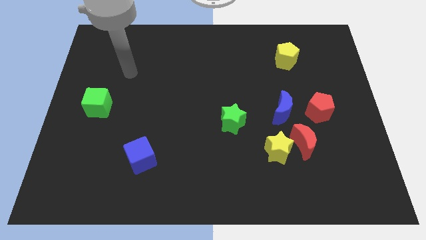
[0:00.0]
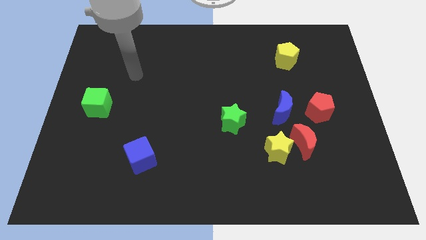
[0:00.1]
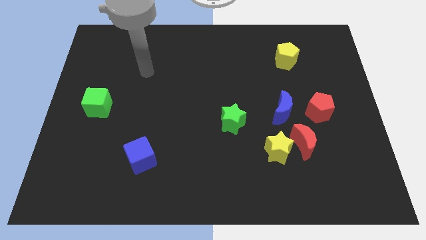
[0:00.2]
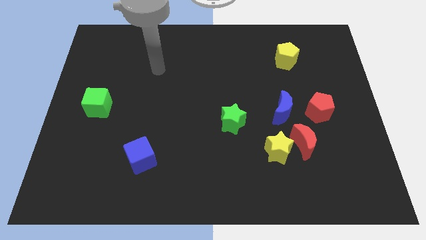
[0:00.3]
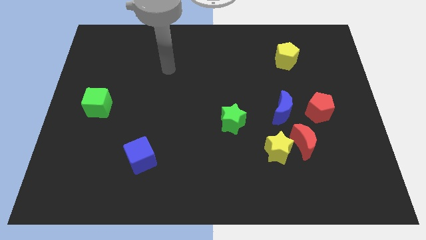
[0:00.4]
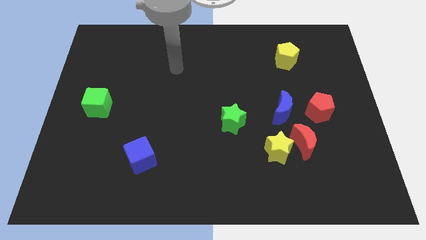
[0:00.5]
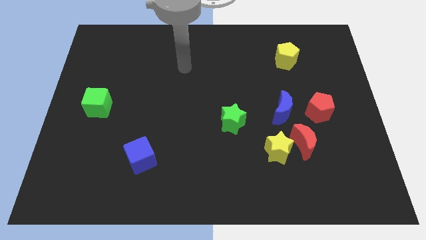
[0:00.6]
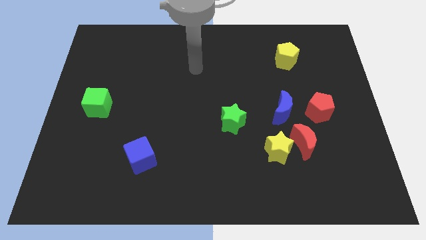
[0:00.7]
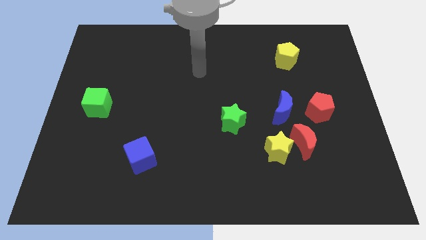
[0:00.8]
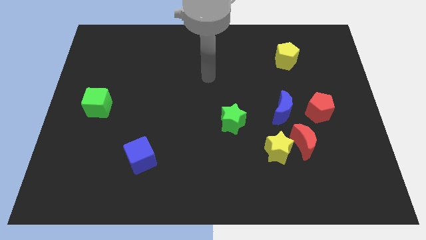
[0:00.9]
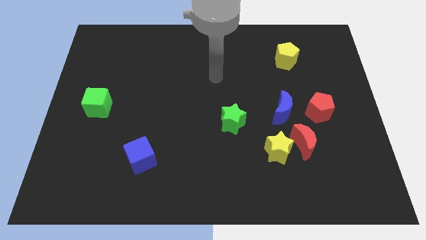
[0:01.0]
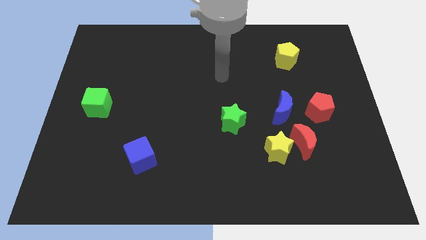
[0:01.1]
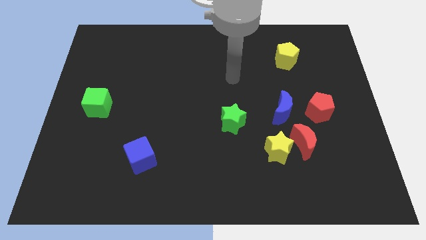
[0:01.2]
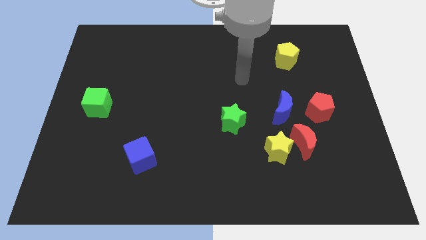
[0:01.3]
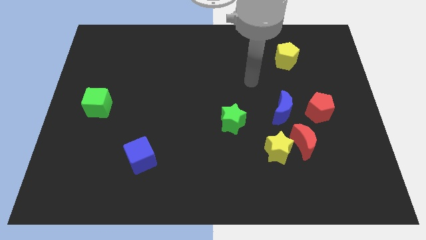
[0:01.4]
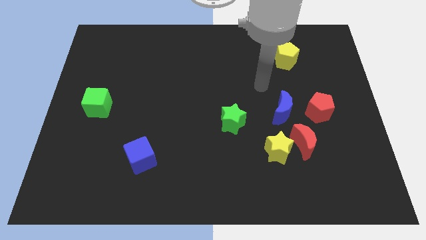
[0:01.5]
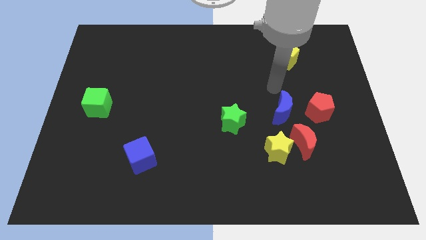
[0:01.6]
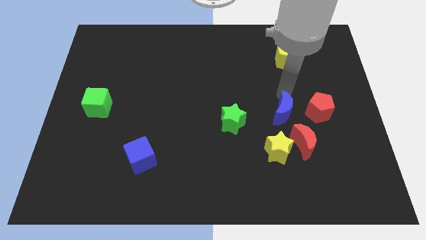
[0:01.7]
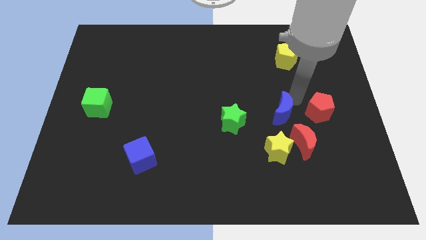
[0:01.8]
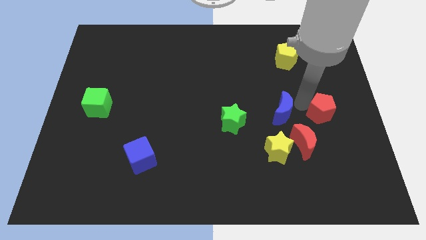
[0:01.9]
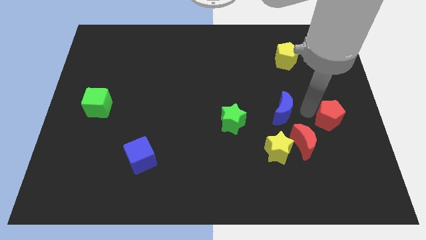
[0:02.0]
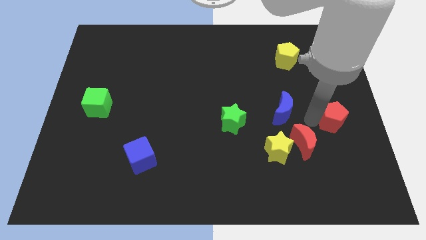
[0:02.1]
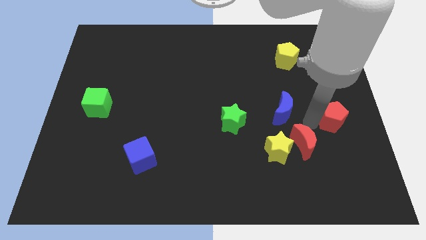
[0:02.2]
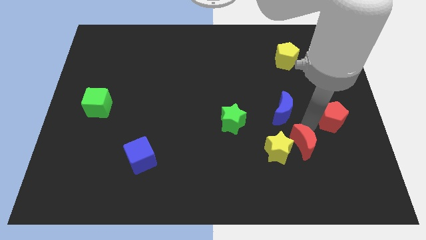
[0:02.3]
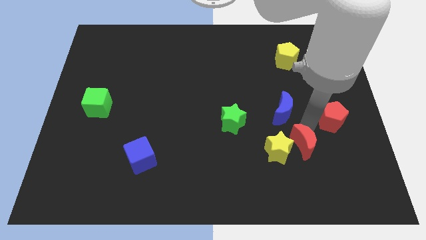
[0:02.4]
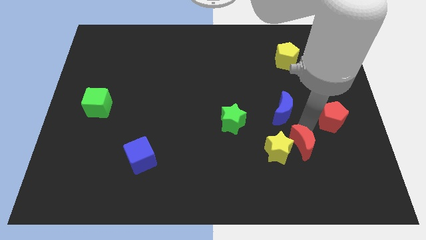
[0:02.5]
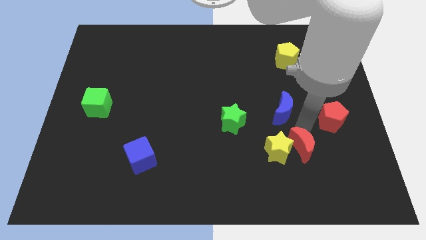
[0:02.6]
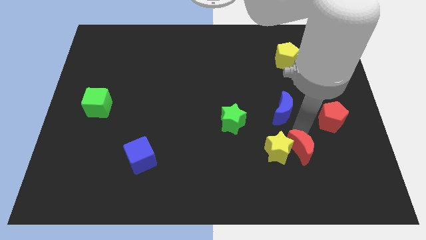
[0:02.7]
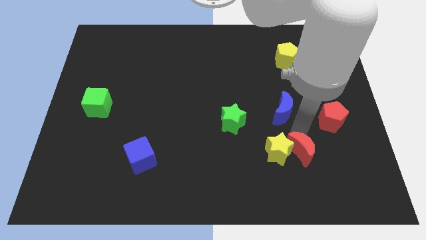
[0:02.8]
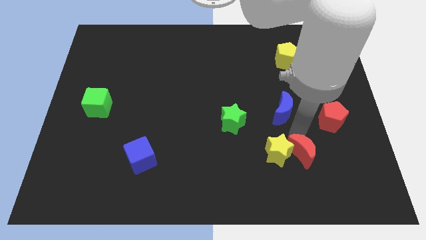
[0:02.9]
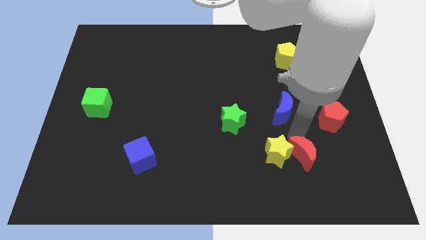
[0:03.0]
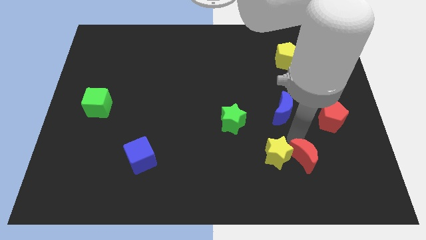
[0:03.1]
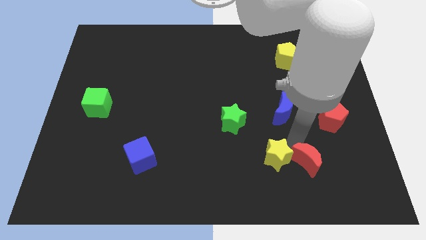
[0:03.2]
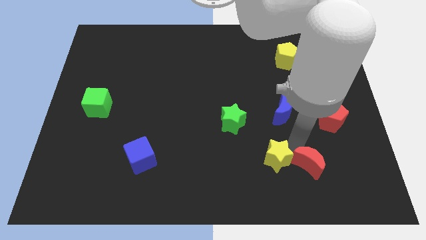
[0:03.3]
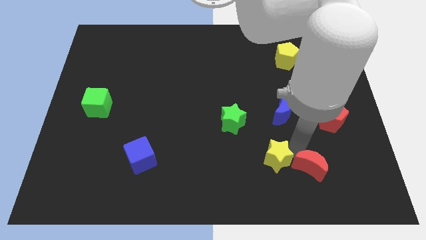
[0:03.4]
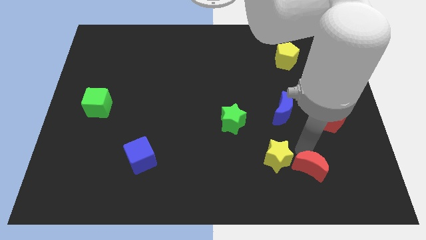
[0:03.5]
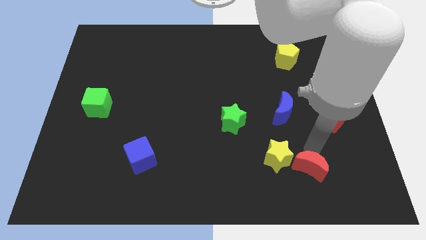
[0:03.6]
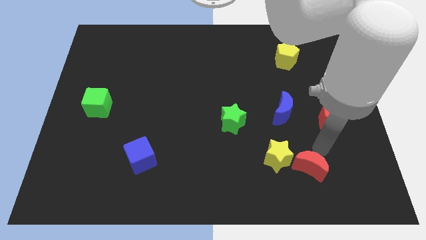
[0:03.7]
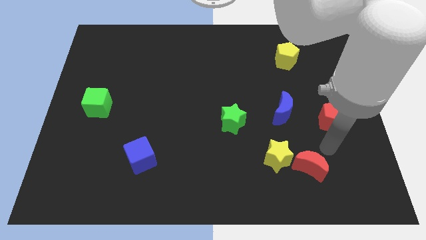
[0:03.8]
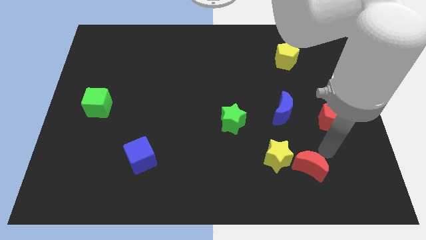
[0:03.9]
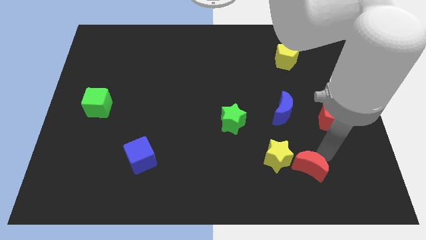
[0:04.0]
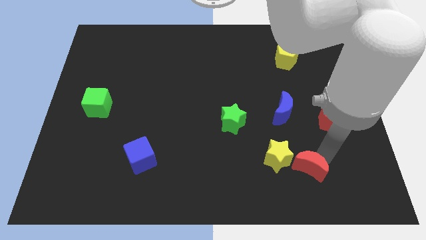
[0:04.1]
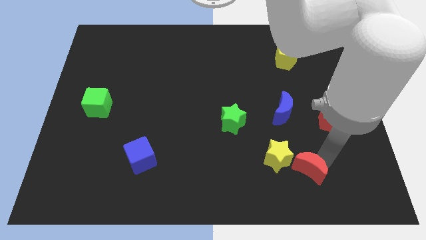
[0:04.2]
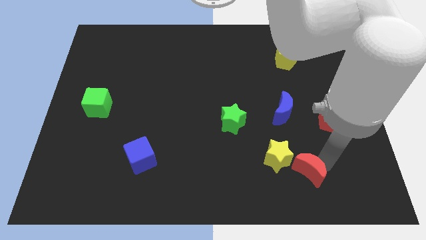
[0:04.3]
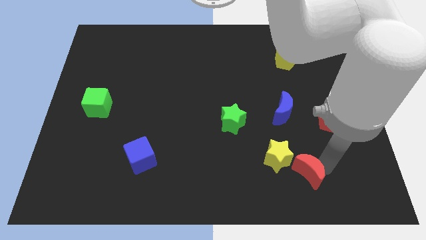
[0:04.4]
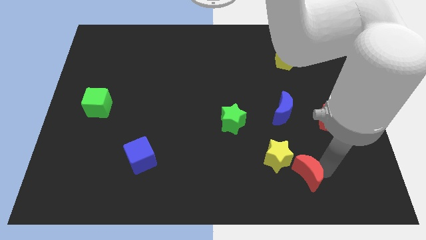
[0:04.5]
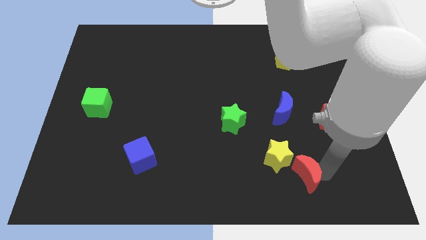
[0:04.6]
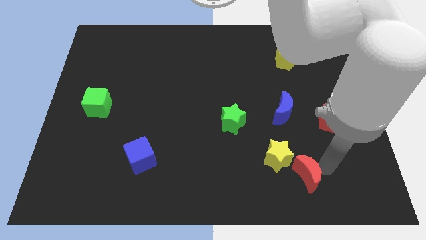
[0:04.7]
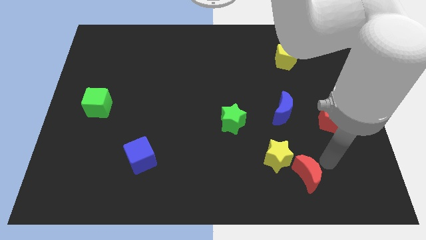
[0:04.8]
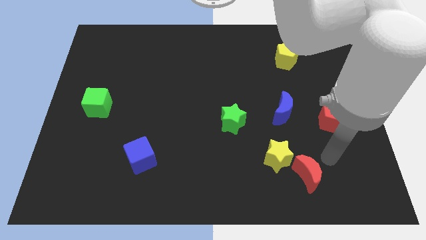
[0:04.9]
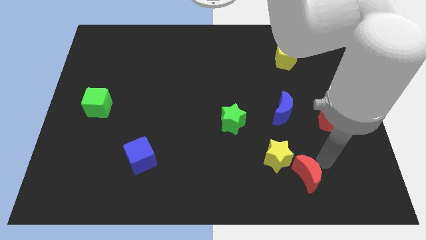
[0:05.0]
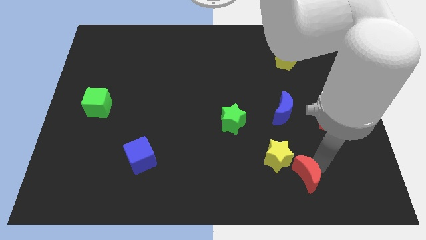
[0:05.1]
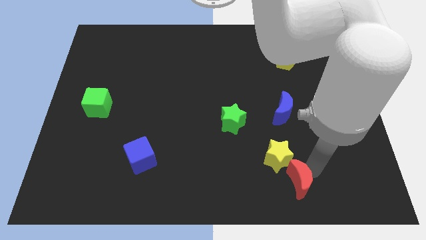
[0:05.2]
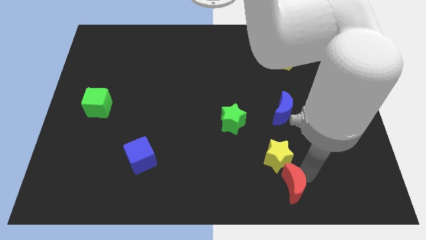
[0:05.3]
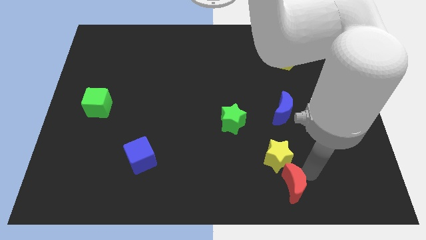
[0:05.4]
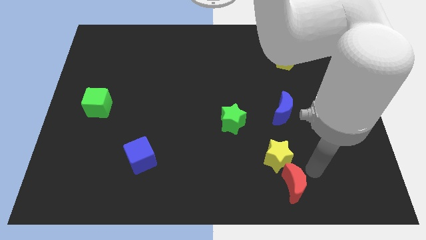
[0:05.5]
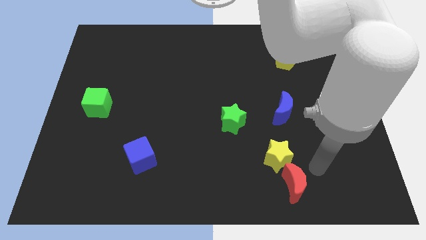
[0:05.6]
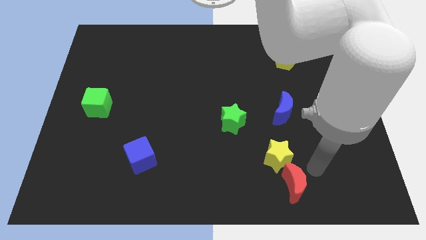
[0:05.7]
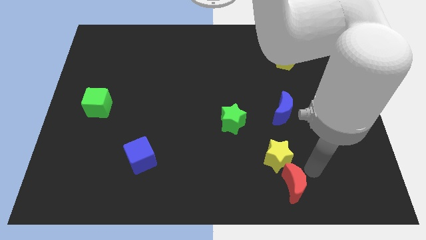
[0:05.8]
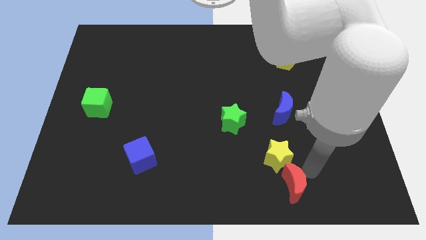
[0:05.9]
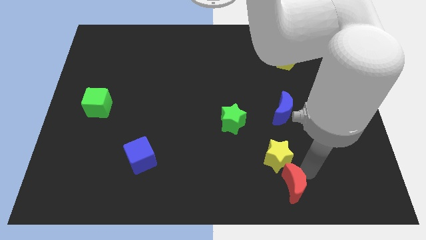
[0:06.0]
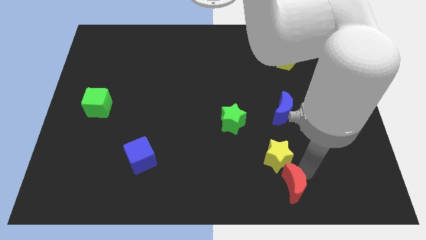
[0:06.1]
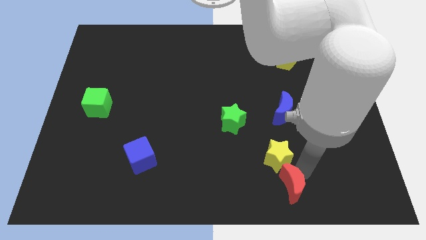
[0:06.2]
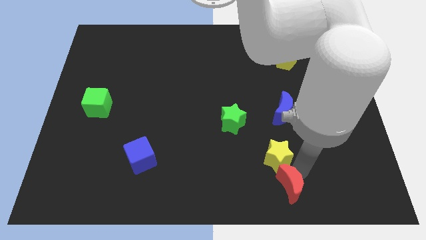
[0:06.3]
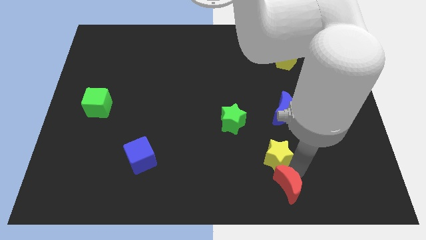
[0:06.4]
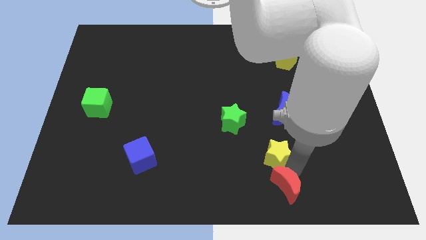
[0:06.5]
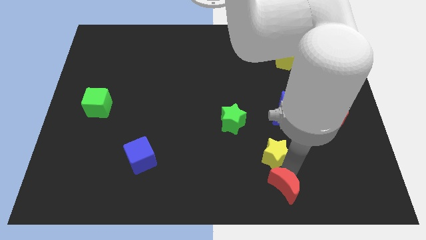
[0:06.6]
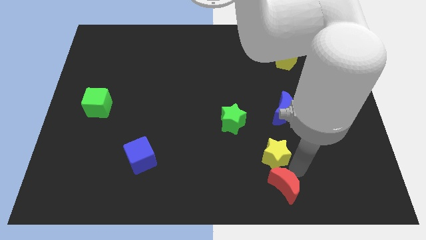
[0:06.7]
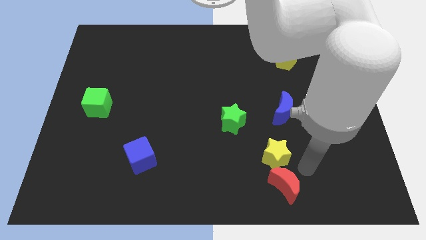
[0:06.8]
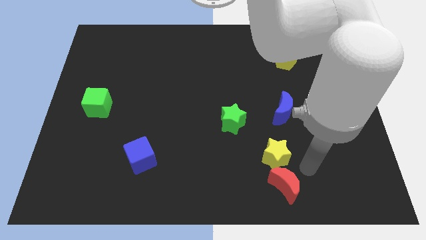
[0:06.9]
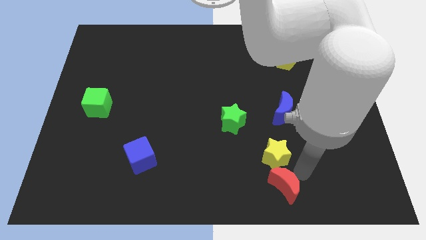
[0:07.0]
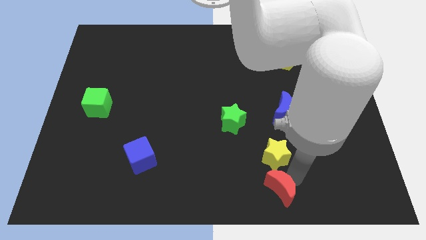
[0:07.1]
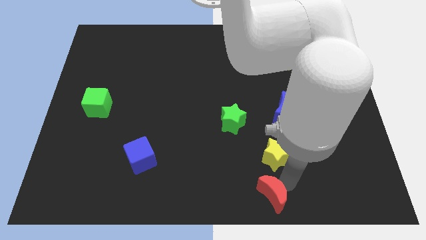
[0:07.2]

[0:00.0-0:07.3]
move the red moon to the bottom side
